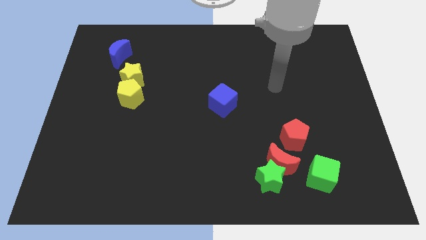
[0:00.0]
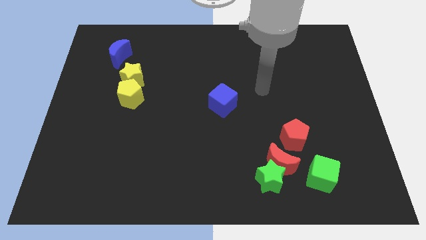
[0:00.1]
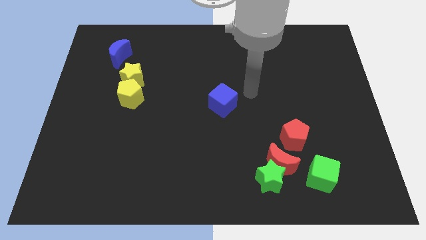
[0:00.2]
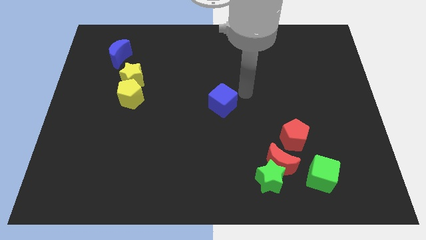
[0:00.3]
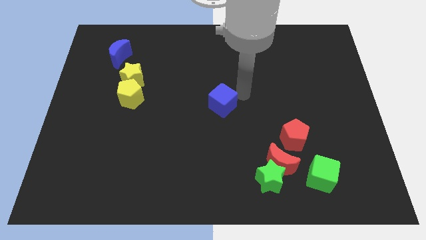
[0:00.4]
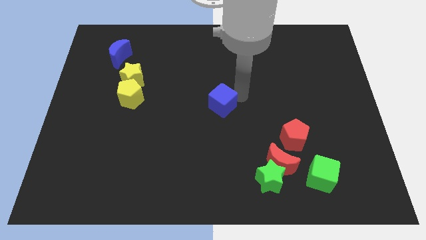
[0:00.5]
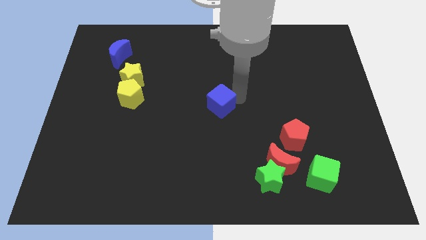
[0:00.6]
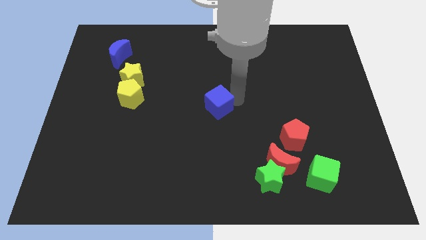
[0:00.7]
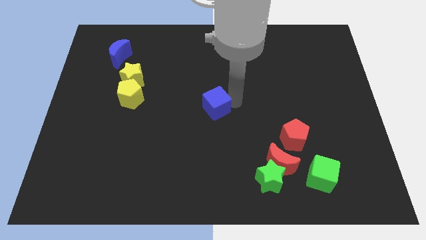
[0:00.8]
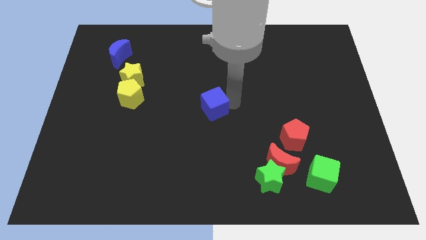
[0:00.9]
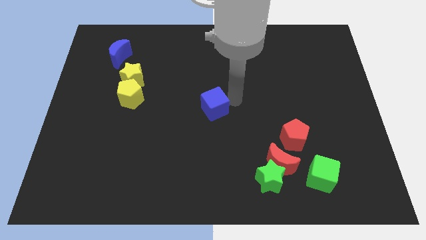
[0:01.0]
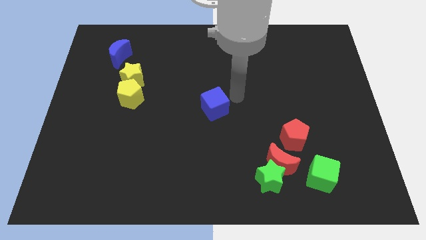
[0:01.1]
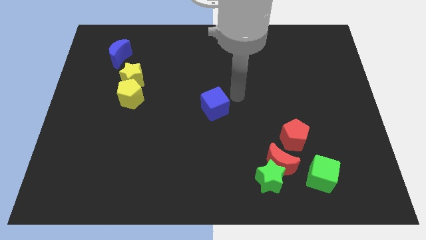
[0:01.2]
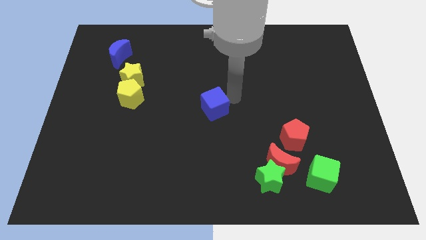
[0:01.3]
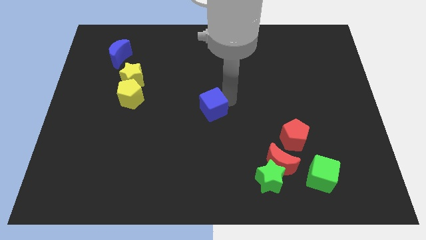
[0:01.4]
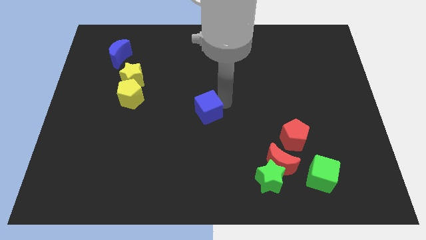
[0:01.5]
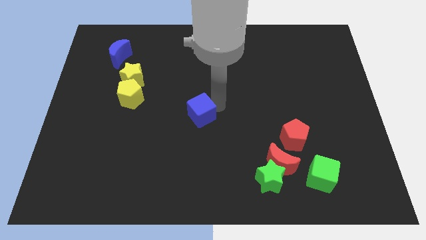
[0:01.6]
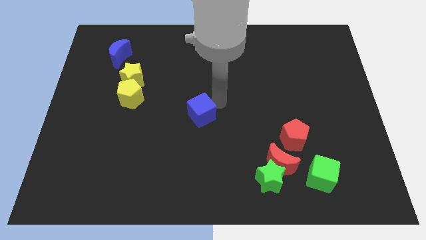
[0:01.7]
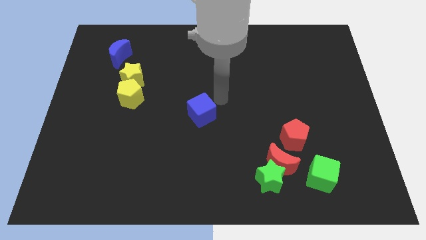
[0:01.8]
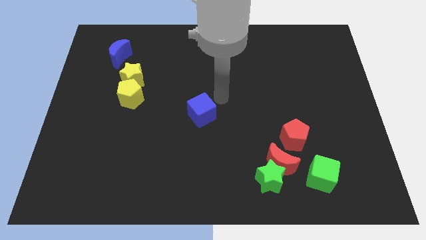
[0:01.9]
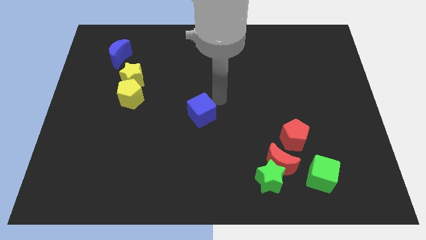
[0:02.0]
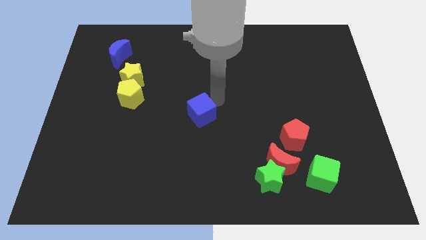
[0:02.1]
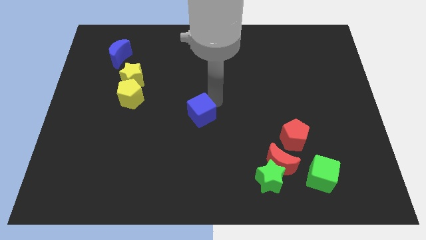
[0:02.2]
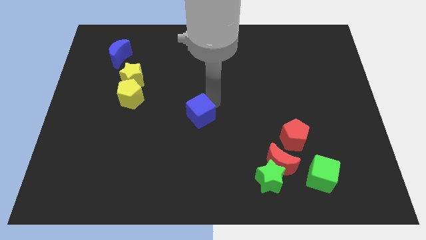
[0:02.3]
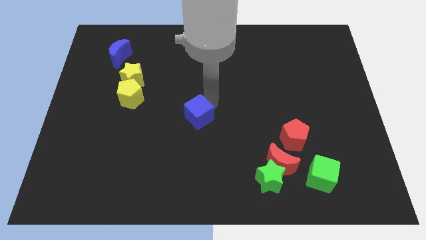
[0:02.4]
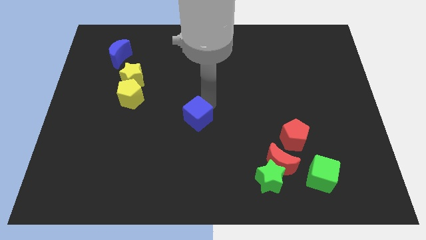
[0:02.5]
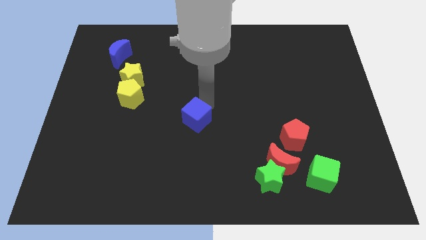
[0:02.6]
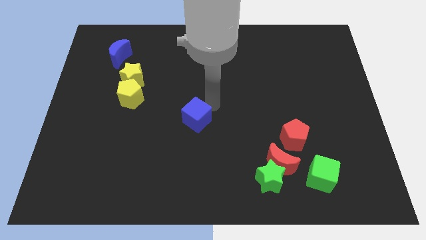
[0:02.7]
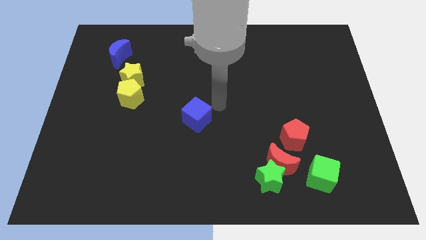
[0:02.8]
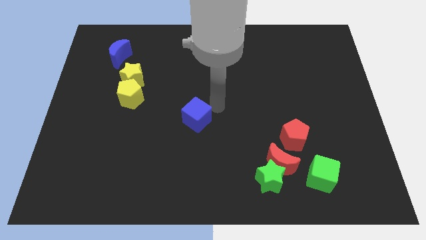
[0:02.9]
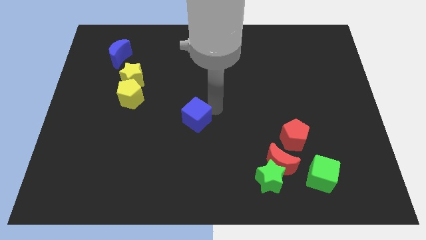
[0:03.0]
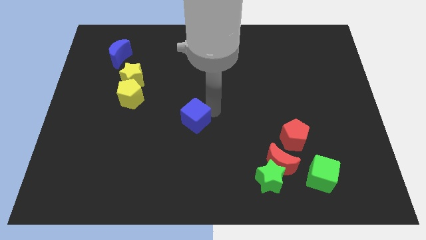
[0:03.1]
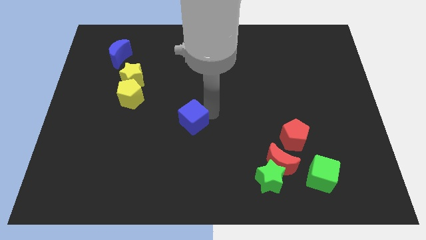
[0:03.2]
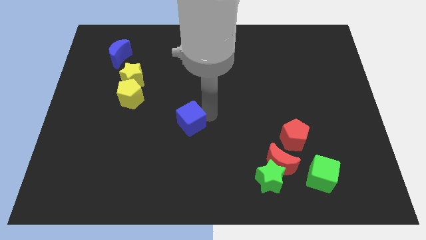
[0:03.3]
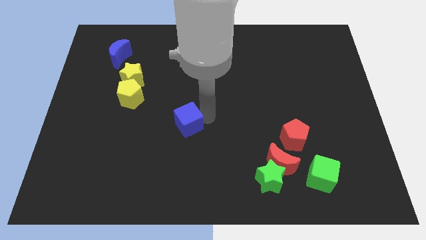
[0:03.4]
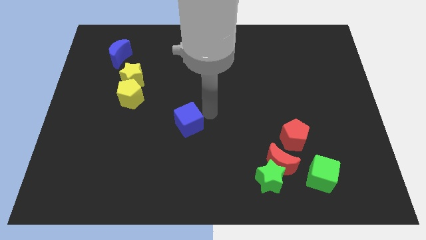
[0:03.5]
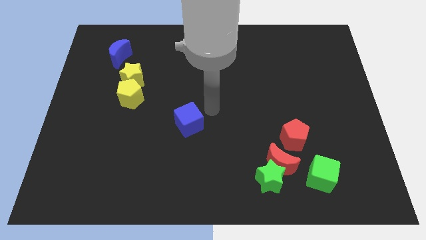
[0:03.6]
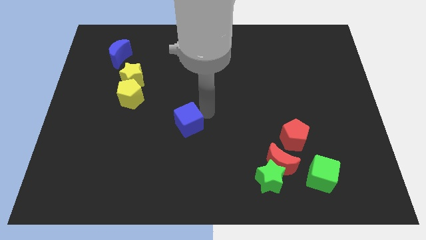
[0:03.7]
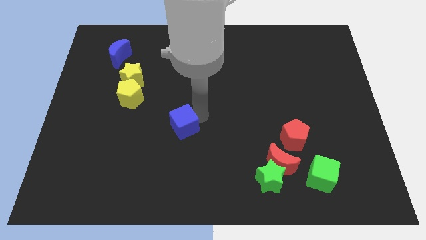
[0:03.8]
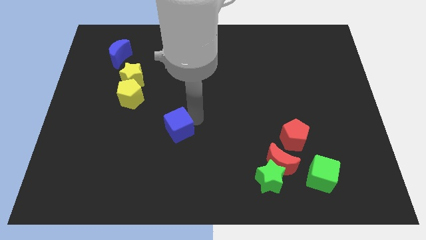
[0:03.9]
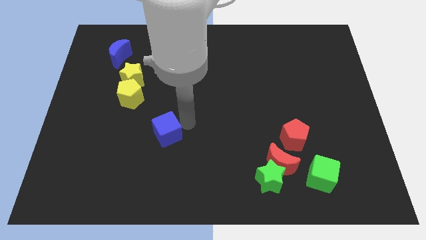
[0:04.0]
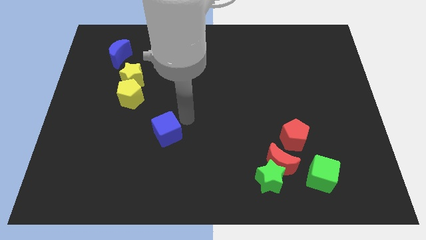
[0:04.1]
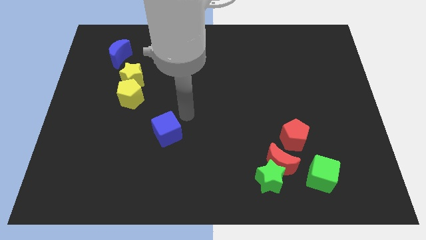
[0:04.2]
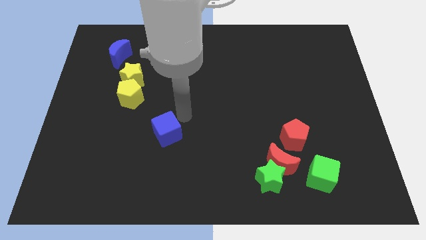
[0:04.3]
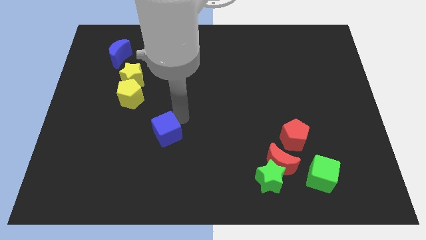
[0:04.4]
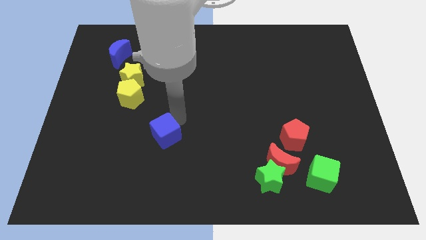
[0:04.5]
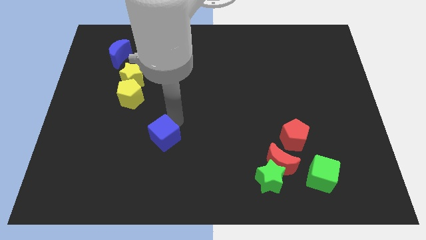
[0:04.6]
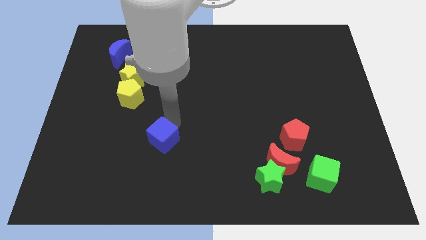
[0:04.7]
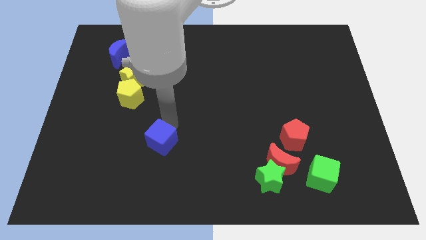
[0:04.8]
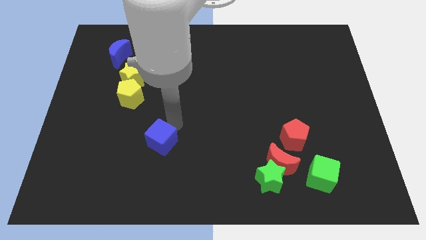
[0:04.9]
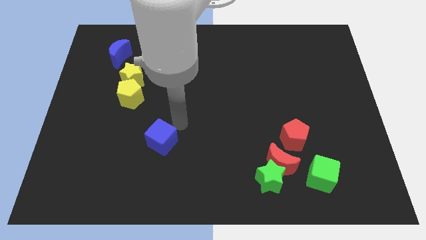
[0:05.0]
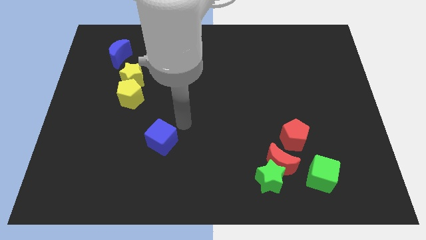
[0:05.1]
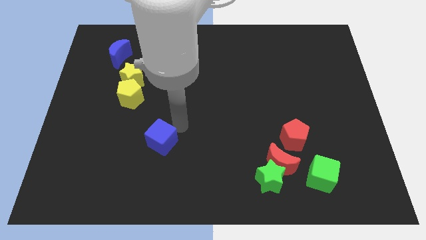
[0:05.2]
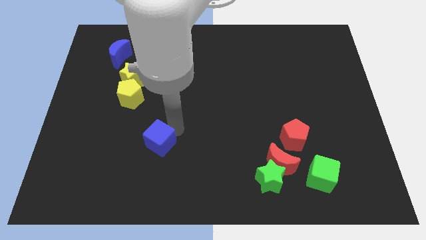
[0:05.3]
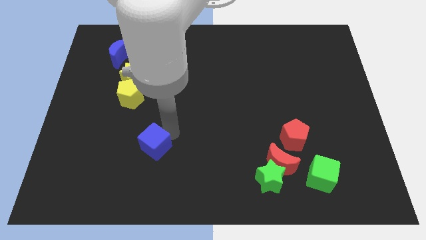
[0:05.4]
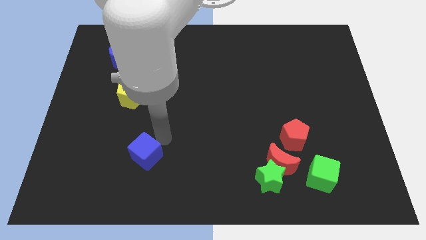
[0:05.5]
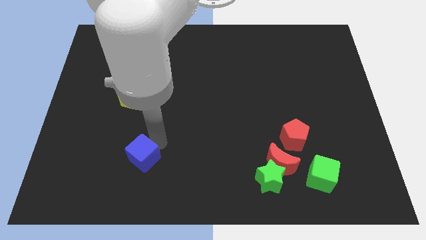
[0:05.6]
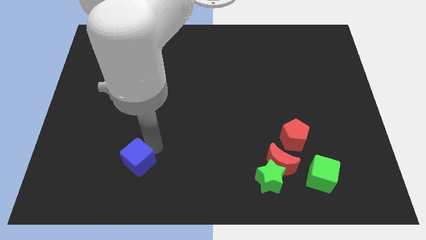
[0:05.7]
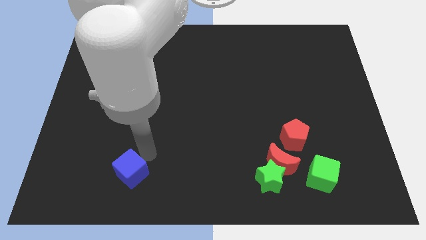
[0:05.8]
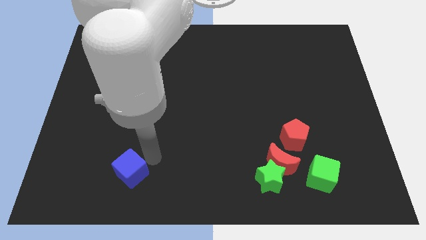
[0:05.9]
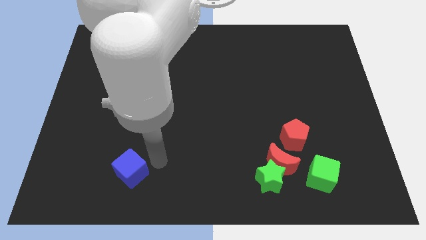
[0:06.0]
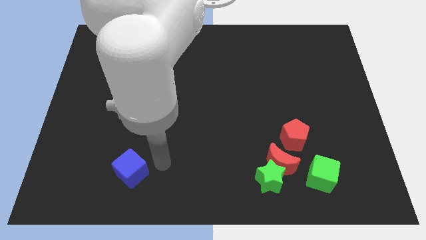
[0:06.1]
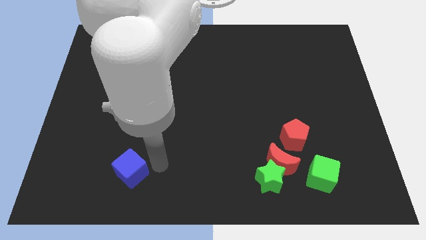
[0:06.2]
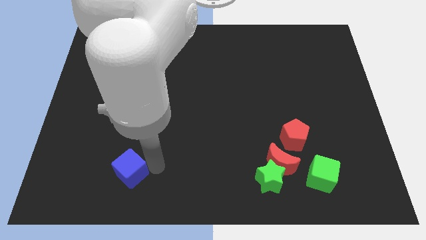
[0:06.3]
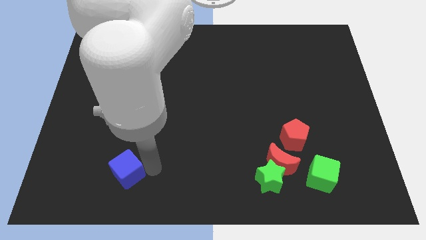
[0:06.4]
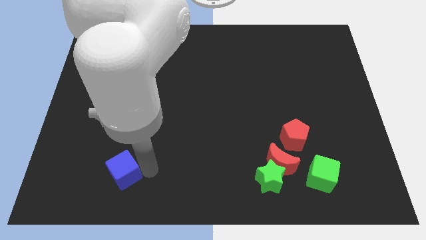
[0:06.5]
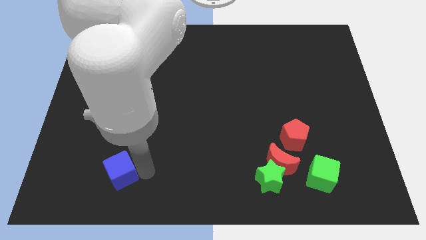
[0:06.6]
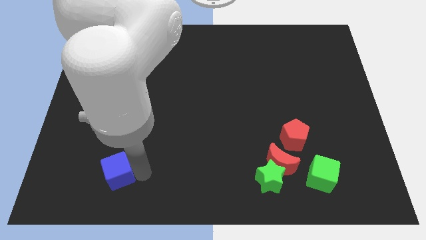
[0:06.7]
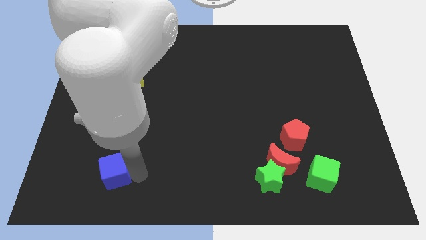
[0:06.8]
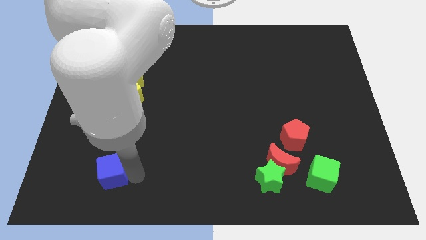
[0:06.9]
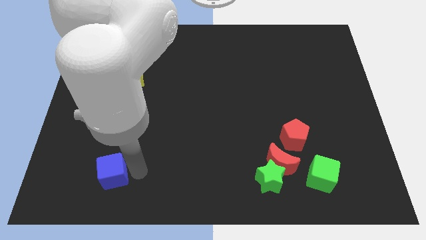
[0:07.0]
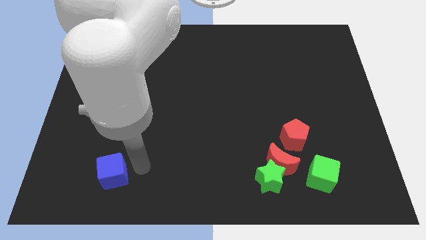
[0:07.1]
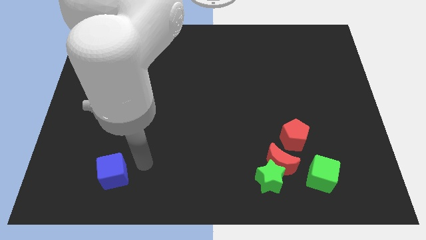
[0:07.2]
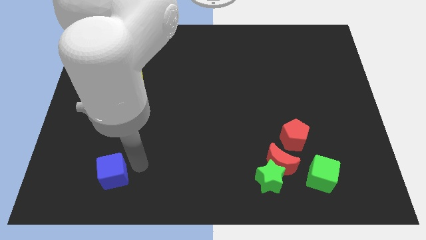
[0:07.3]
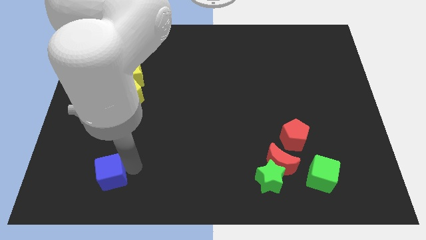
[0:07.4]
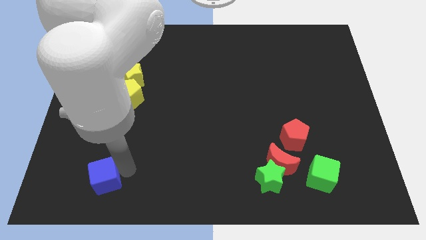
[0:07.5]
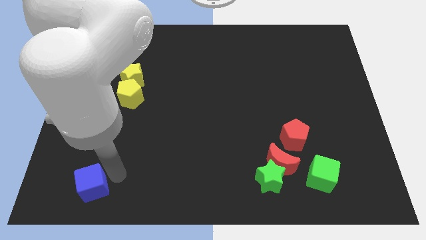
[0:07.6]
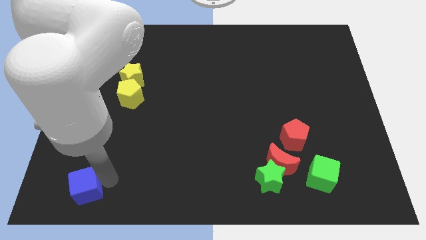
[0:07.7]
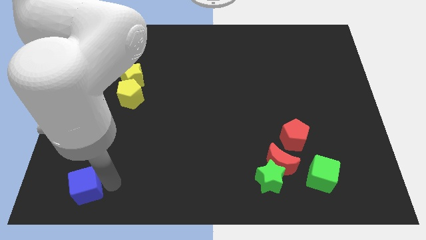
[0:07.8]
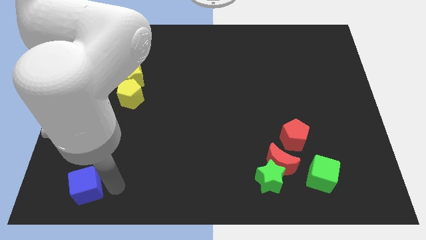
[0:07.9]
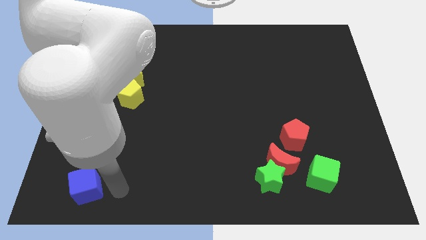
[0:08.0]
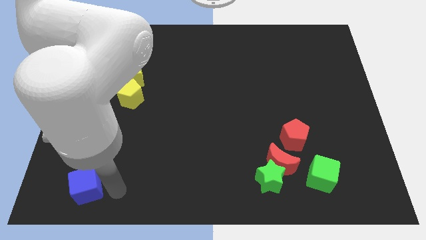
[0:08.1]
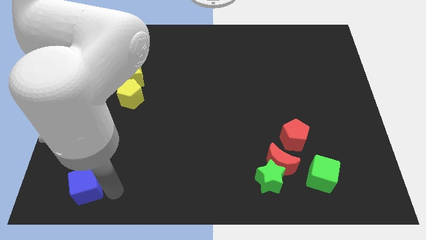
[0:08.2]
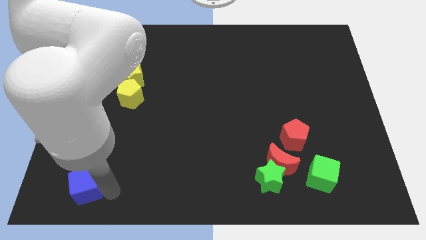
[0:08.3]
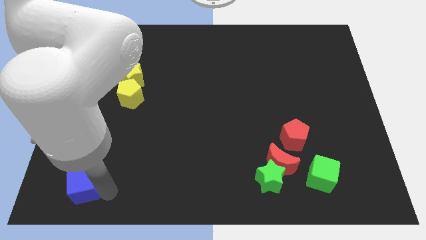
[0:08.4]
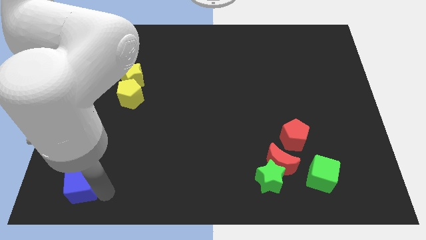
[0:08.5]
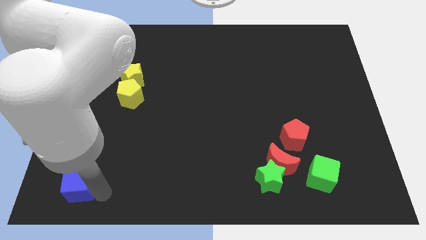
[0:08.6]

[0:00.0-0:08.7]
push the blue cube to the lower left corner
